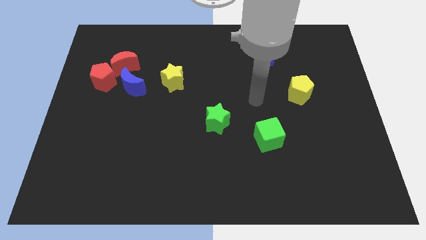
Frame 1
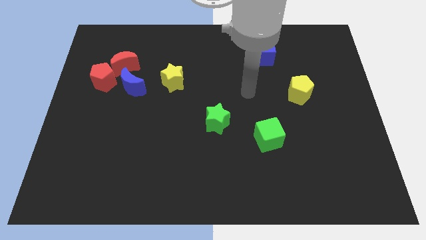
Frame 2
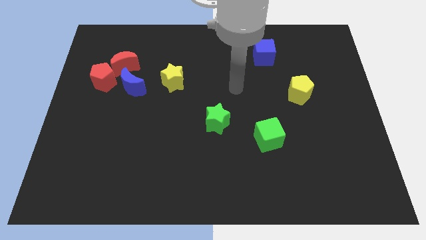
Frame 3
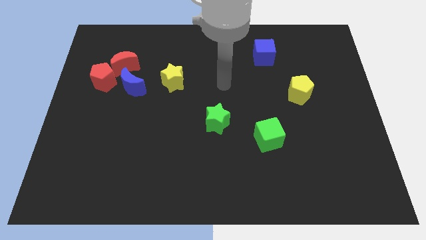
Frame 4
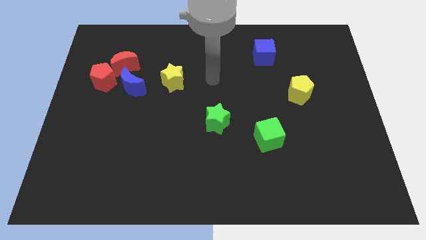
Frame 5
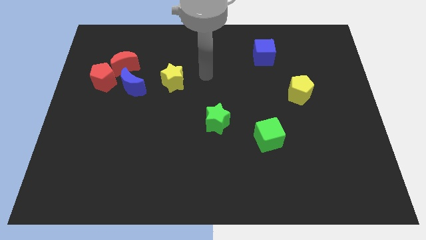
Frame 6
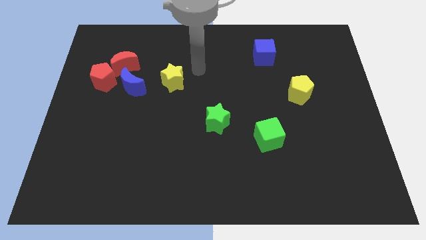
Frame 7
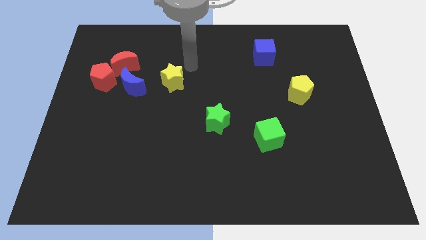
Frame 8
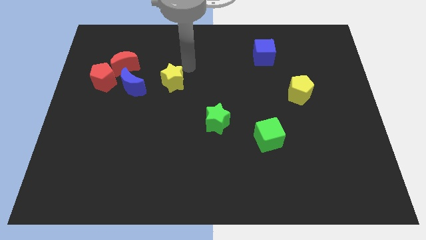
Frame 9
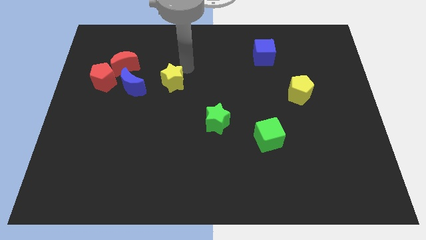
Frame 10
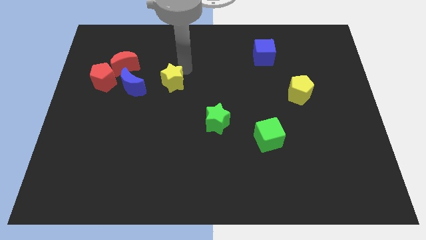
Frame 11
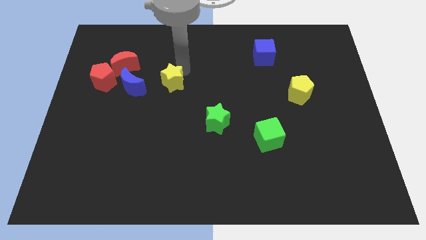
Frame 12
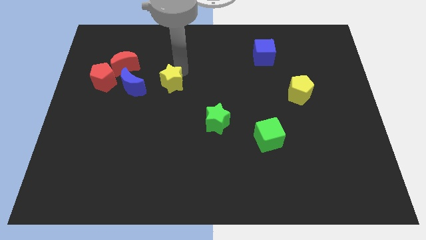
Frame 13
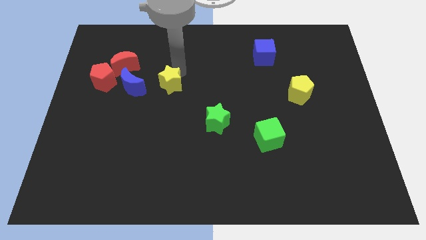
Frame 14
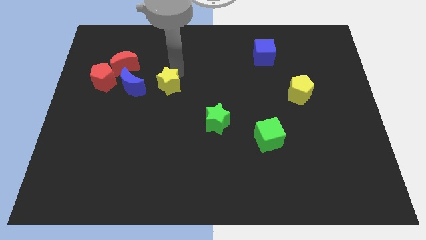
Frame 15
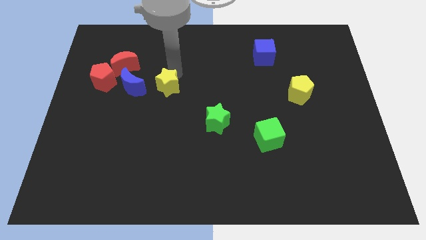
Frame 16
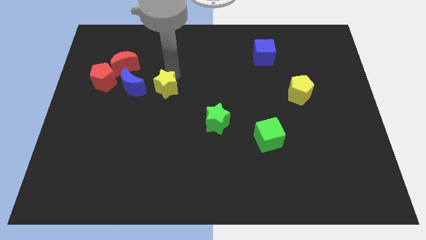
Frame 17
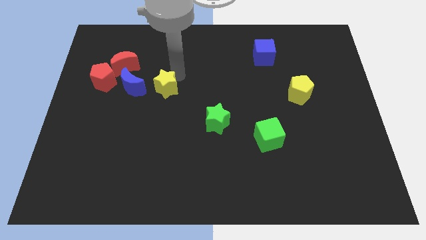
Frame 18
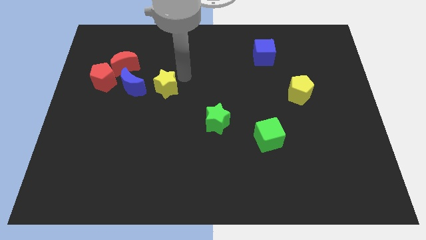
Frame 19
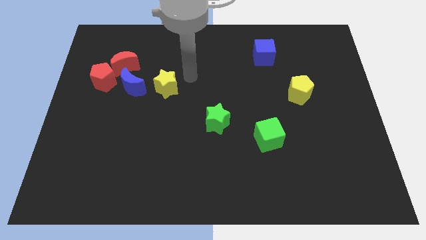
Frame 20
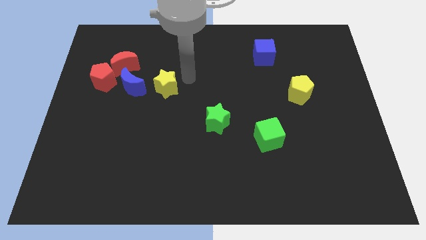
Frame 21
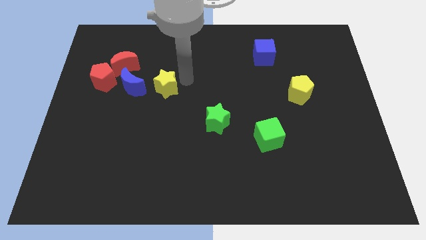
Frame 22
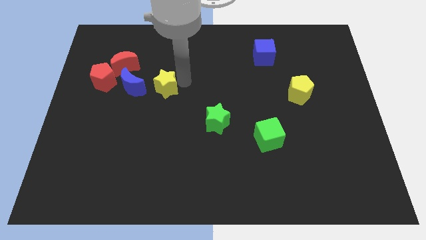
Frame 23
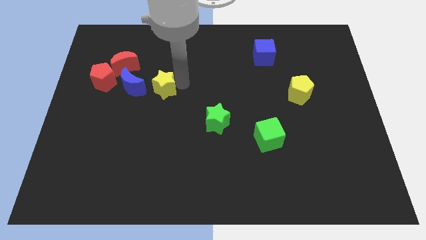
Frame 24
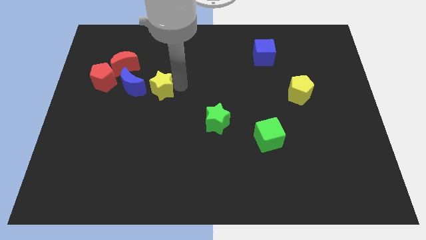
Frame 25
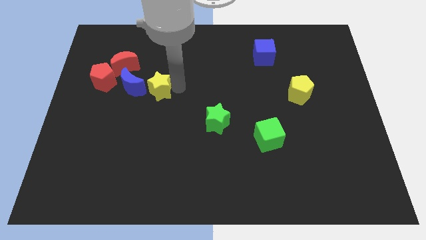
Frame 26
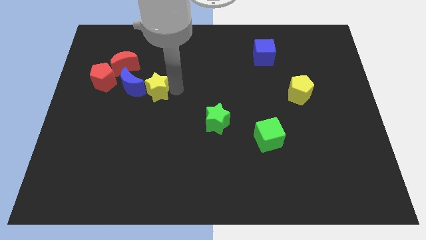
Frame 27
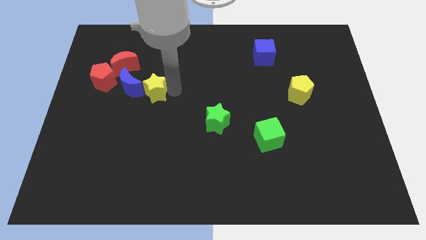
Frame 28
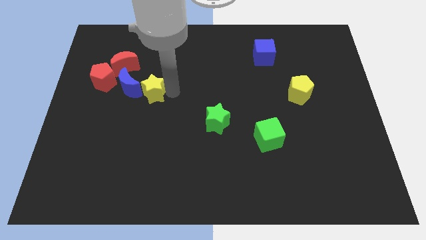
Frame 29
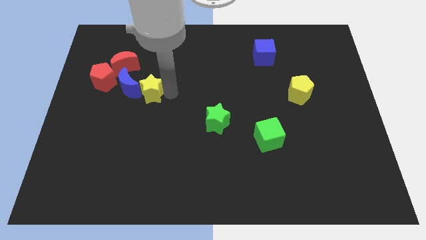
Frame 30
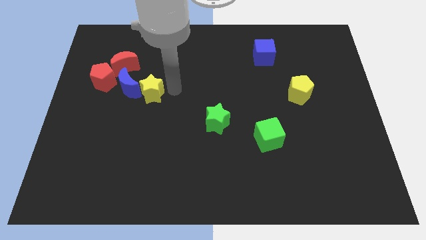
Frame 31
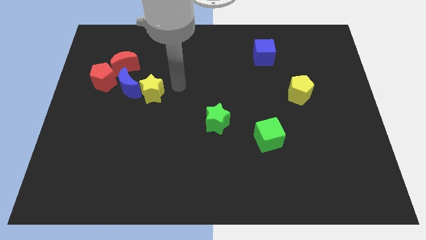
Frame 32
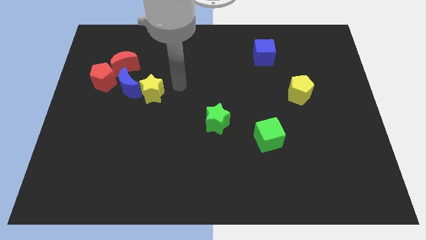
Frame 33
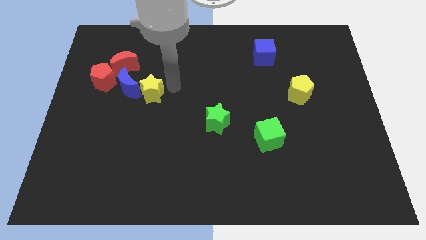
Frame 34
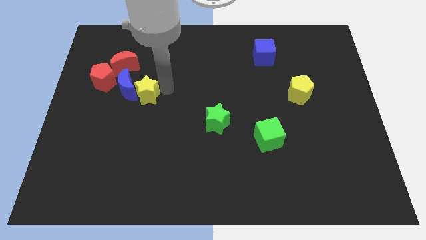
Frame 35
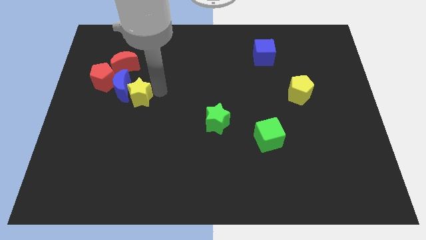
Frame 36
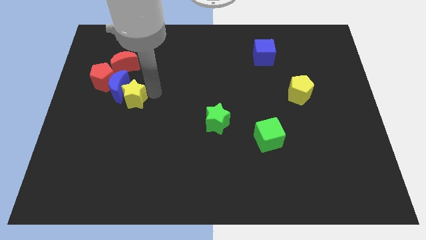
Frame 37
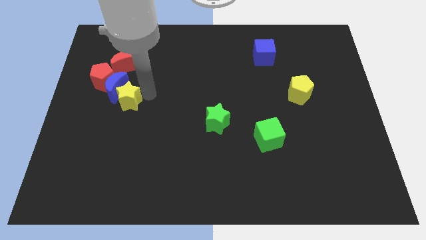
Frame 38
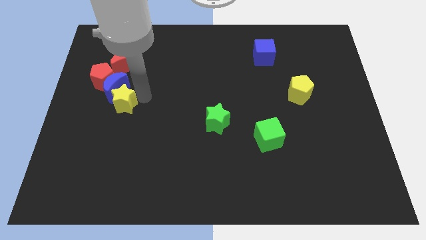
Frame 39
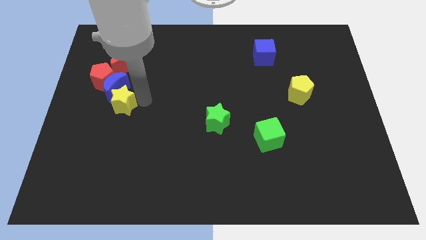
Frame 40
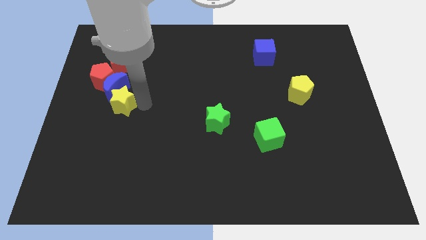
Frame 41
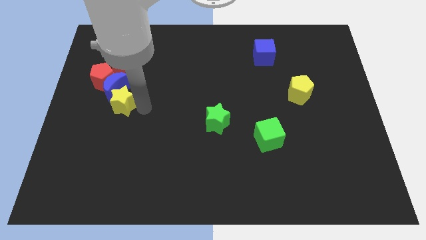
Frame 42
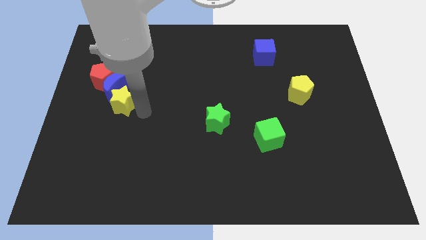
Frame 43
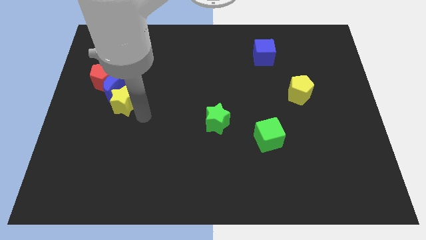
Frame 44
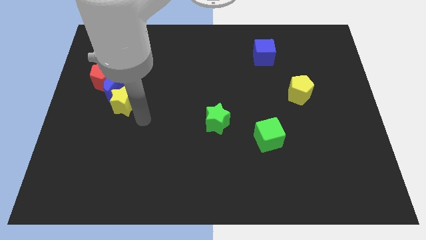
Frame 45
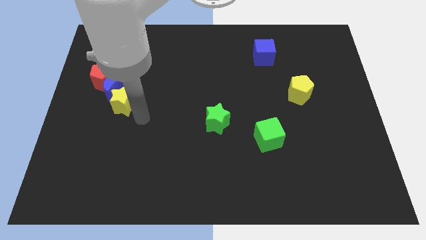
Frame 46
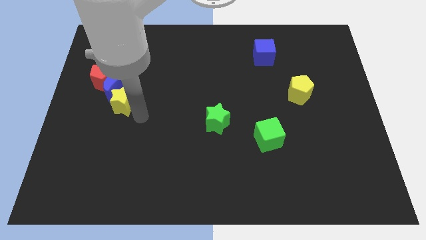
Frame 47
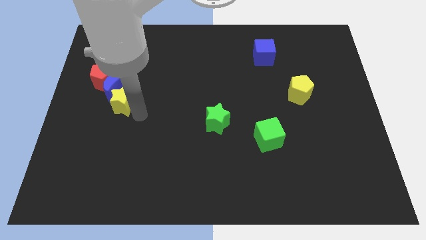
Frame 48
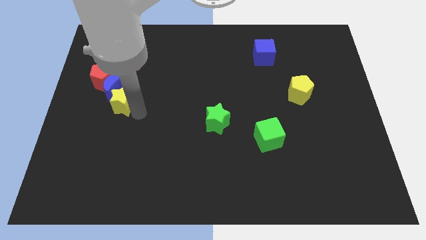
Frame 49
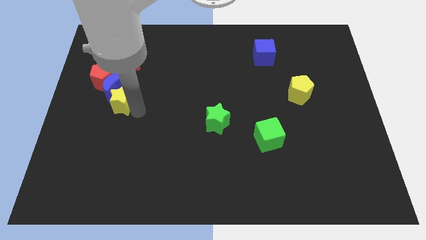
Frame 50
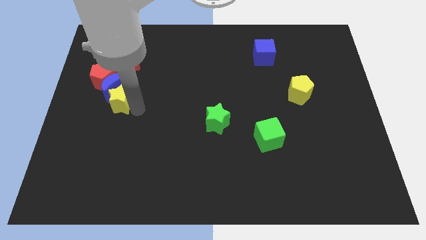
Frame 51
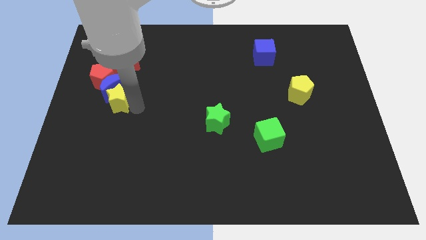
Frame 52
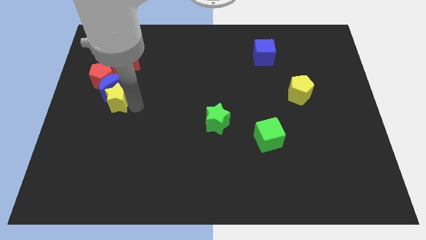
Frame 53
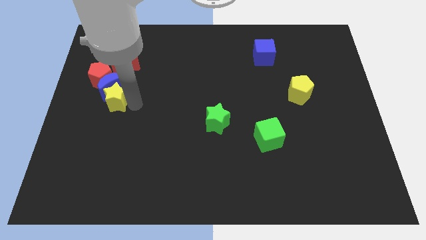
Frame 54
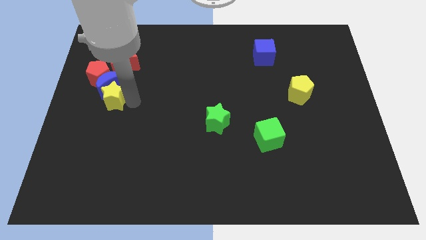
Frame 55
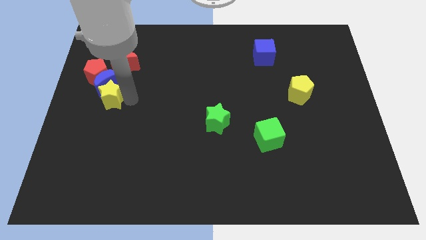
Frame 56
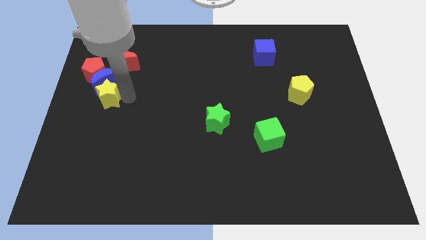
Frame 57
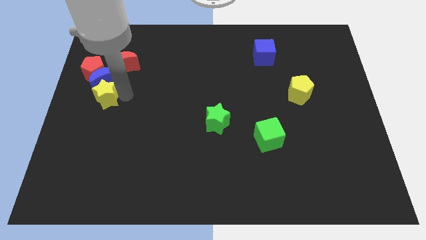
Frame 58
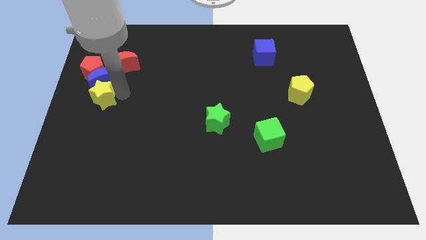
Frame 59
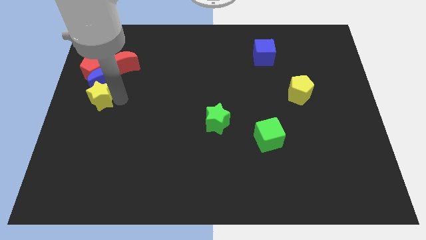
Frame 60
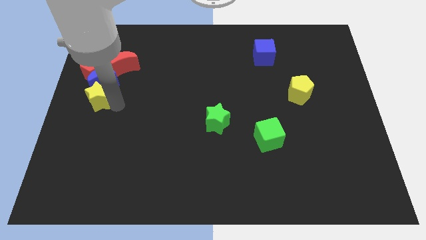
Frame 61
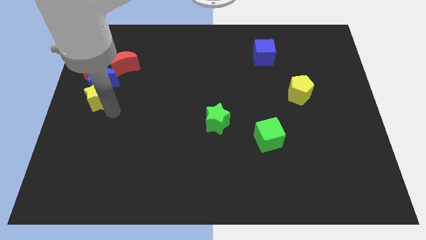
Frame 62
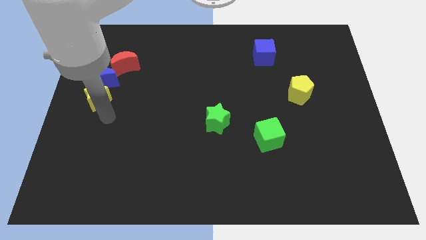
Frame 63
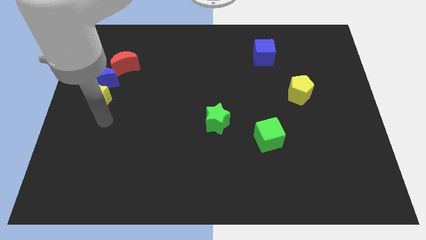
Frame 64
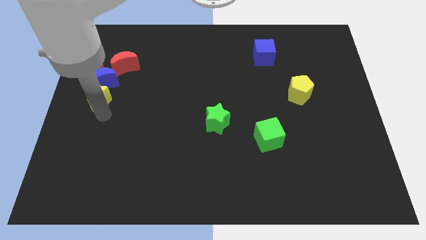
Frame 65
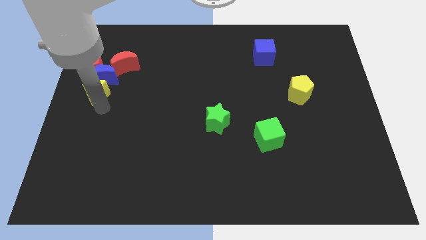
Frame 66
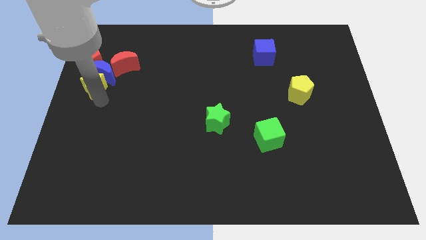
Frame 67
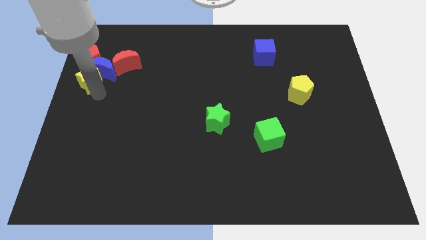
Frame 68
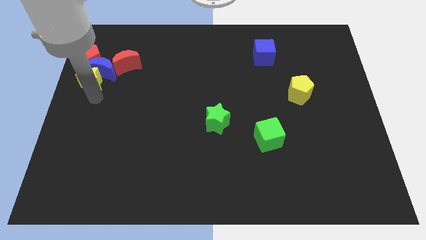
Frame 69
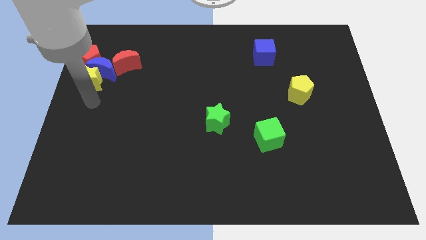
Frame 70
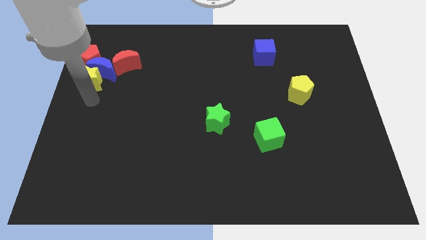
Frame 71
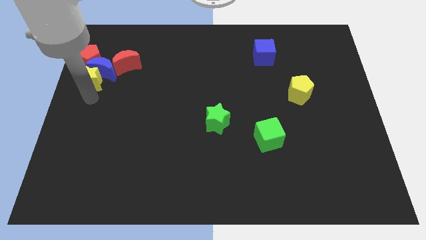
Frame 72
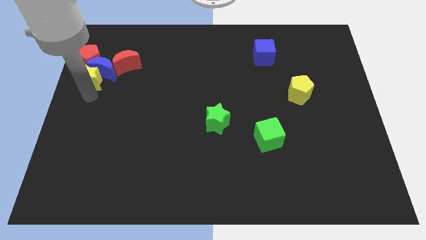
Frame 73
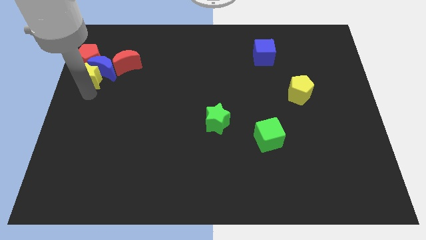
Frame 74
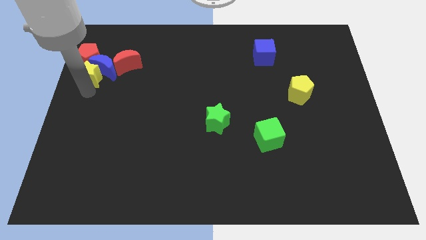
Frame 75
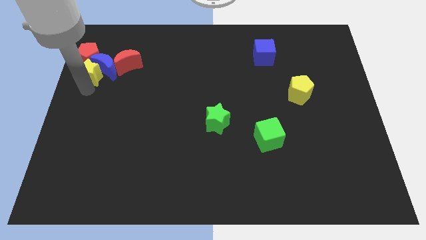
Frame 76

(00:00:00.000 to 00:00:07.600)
put the yellow star next to the red pentagon
